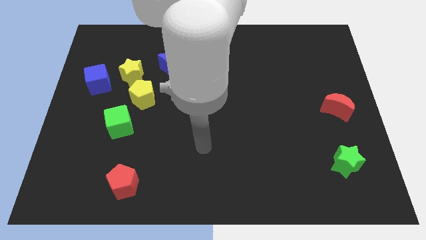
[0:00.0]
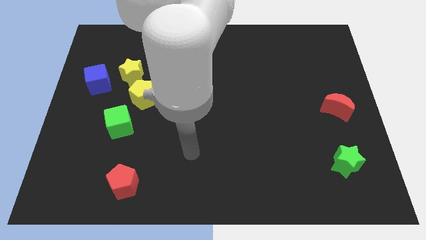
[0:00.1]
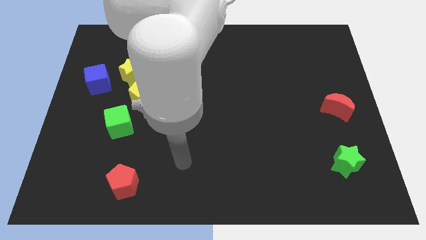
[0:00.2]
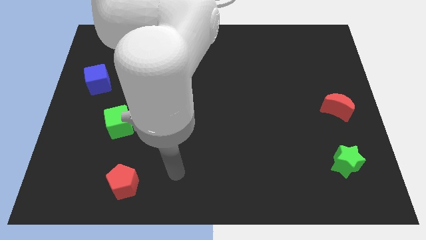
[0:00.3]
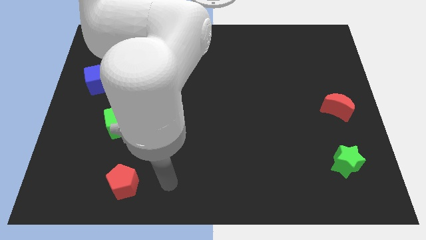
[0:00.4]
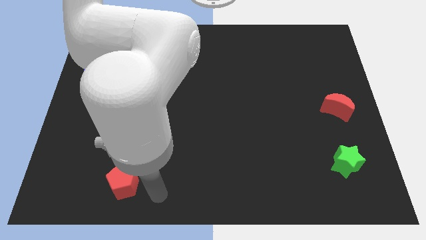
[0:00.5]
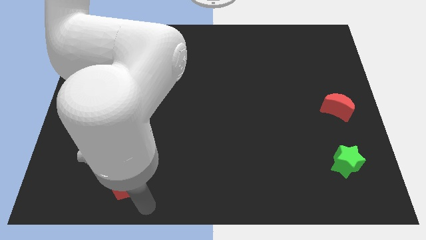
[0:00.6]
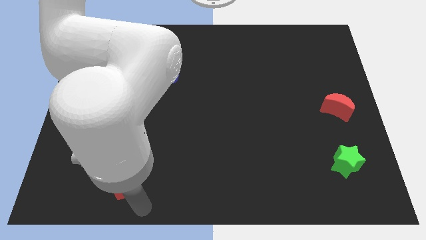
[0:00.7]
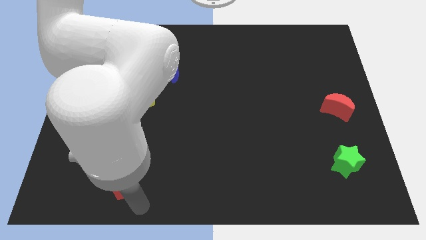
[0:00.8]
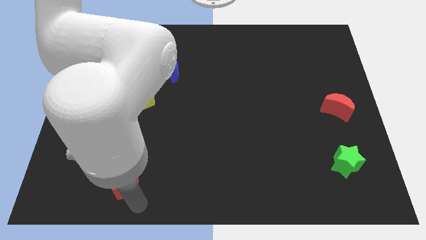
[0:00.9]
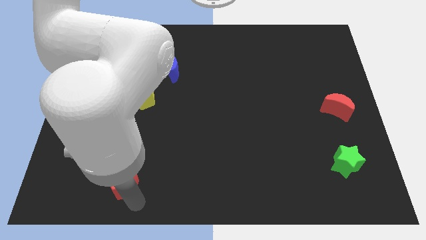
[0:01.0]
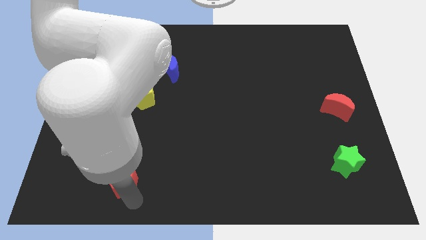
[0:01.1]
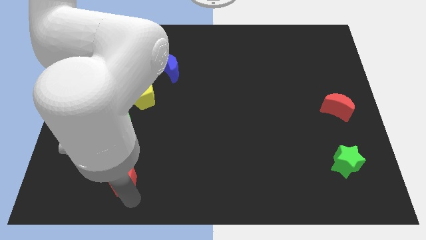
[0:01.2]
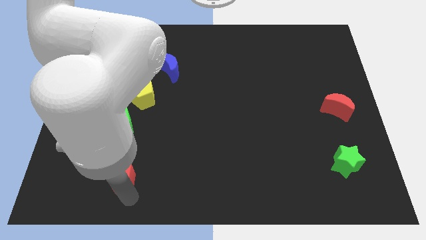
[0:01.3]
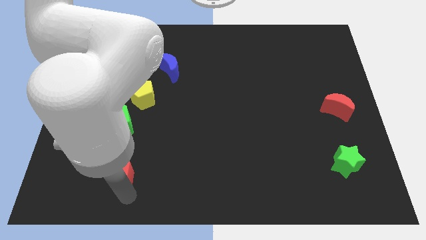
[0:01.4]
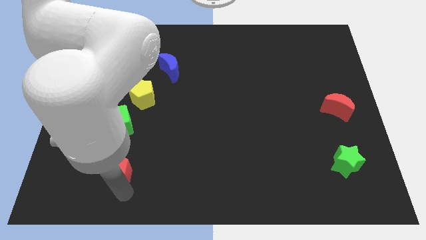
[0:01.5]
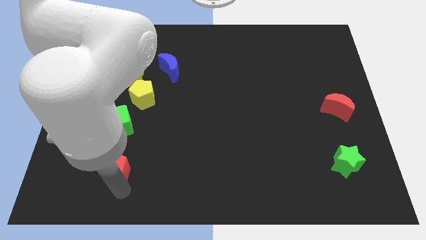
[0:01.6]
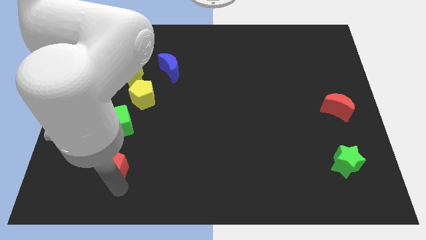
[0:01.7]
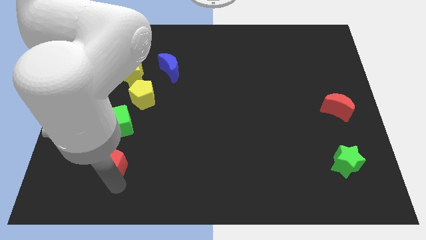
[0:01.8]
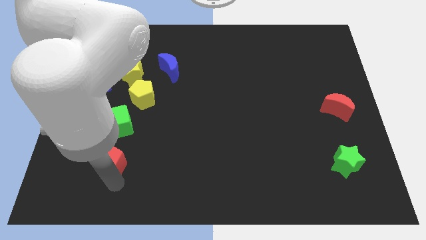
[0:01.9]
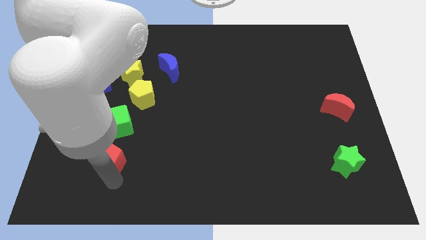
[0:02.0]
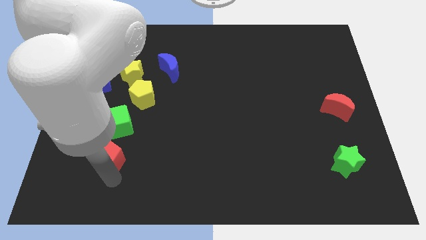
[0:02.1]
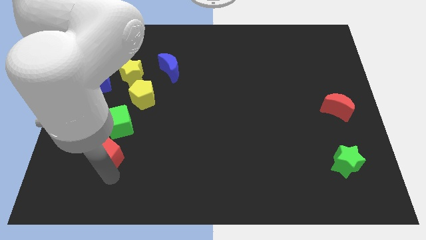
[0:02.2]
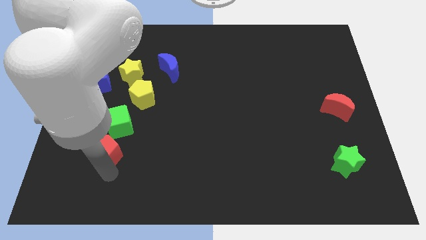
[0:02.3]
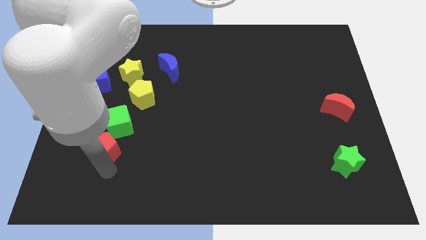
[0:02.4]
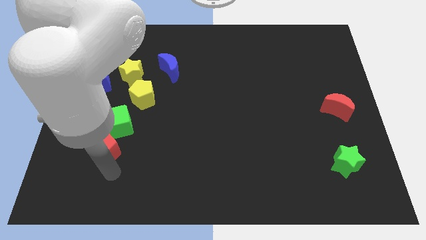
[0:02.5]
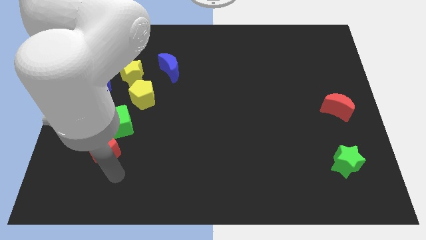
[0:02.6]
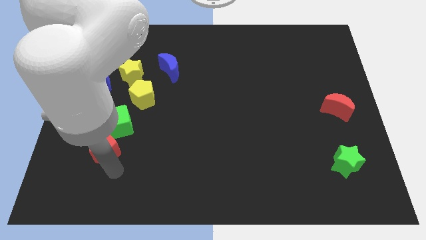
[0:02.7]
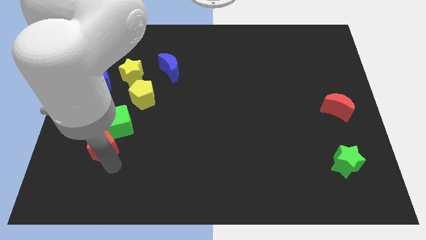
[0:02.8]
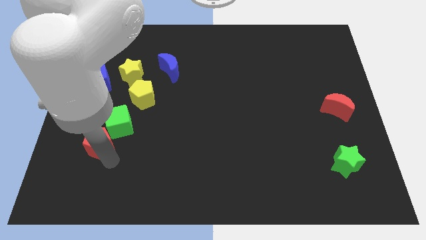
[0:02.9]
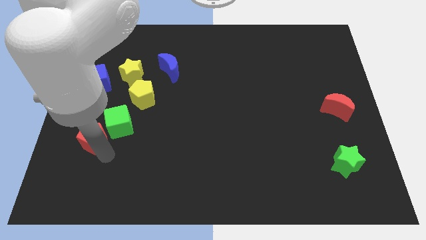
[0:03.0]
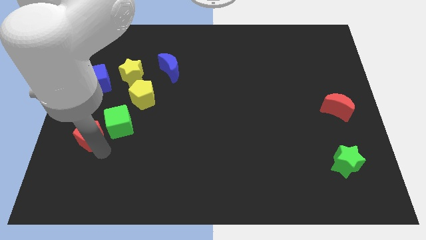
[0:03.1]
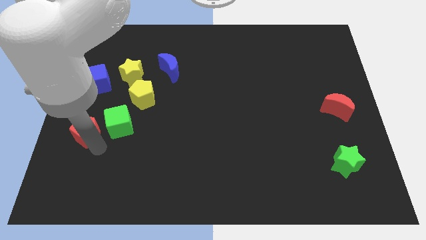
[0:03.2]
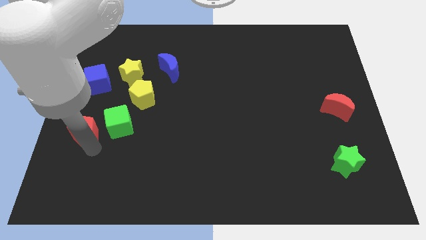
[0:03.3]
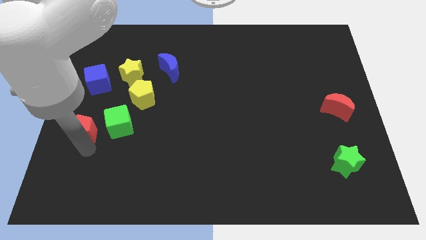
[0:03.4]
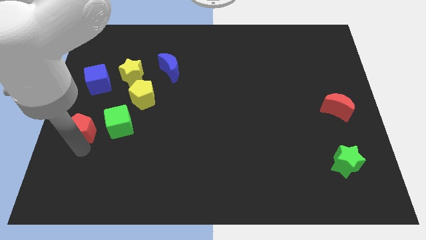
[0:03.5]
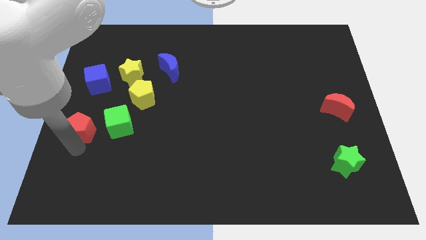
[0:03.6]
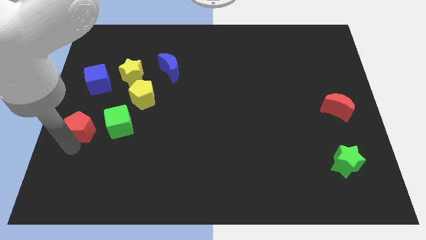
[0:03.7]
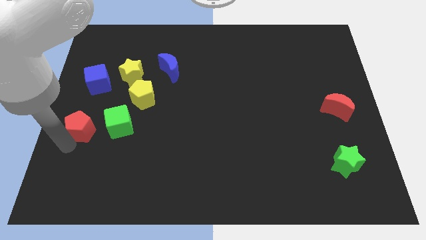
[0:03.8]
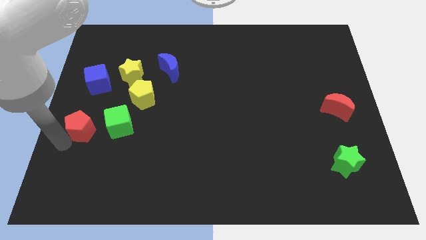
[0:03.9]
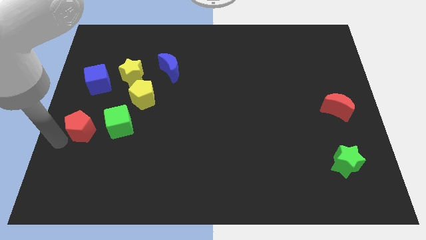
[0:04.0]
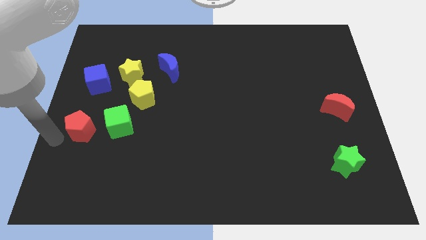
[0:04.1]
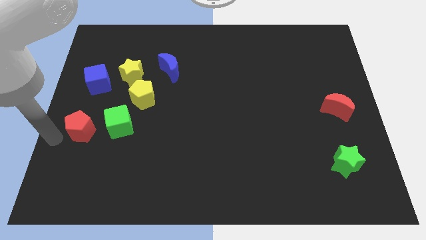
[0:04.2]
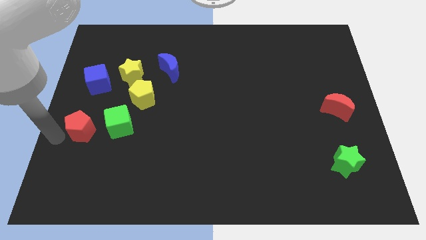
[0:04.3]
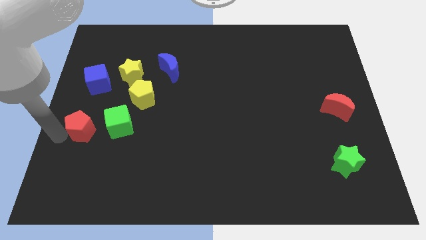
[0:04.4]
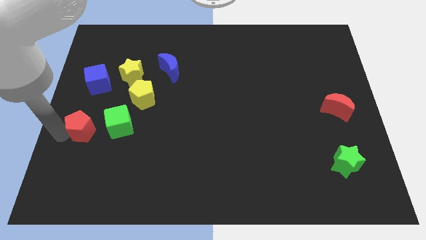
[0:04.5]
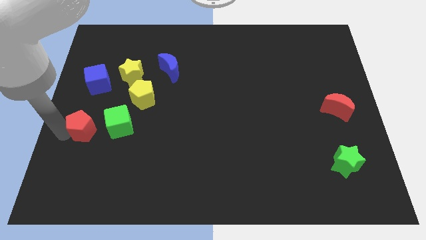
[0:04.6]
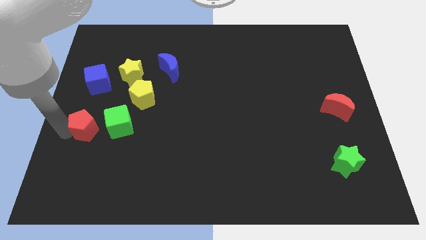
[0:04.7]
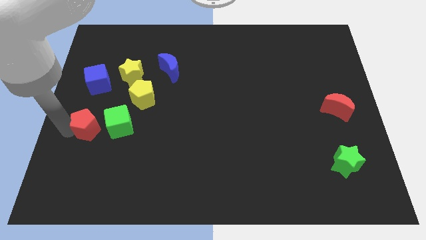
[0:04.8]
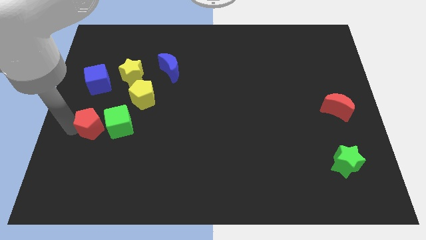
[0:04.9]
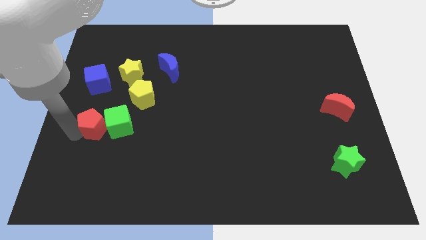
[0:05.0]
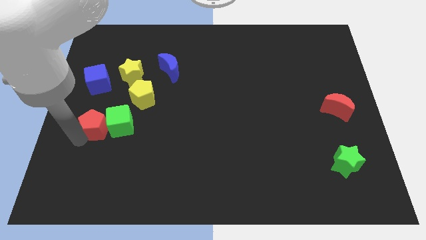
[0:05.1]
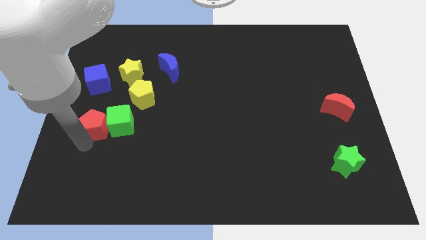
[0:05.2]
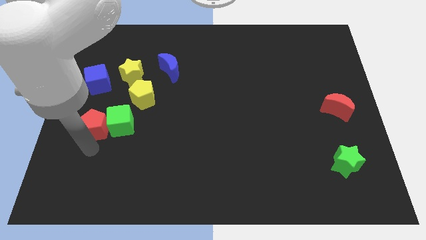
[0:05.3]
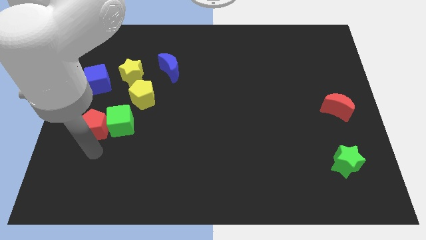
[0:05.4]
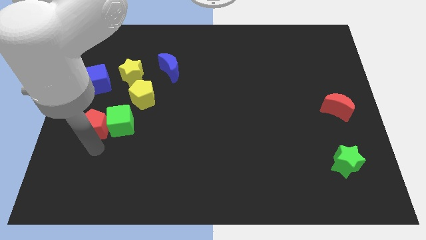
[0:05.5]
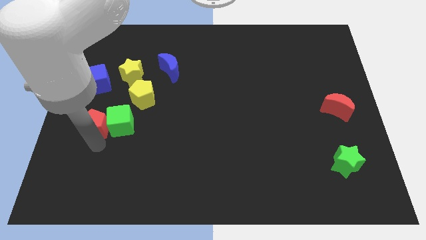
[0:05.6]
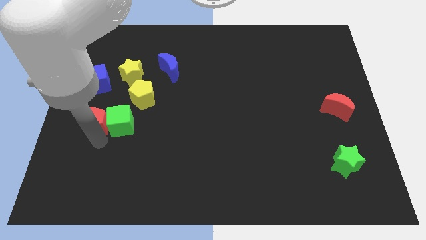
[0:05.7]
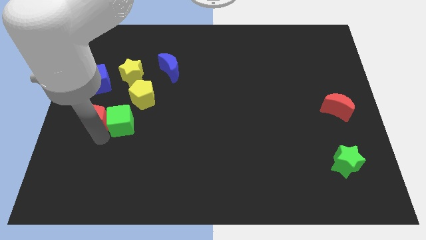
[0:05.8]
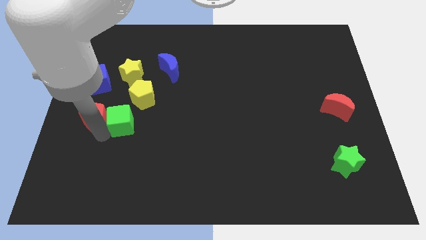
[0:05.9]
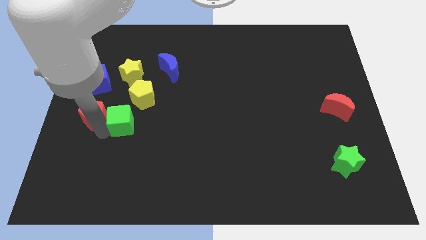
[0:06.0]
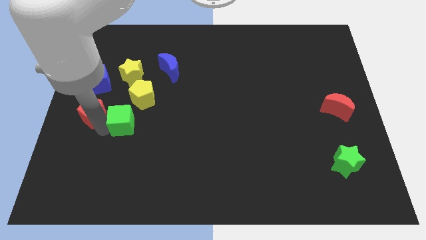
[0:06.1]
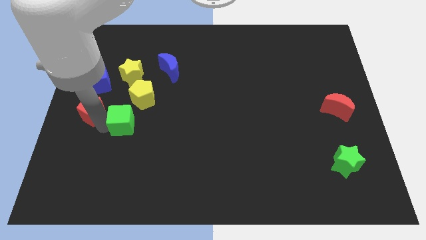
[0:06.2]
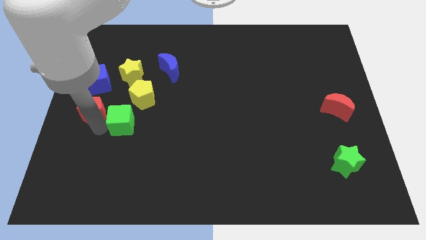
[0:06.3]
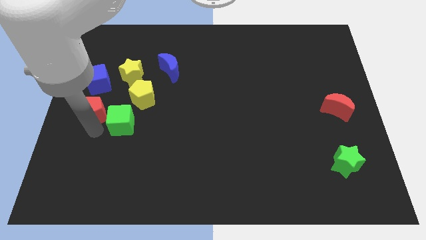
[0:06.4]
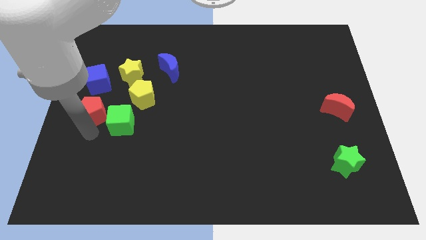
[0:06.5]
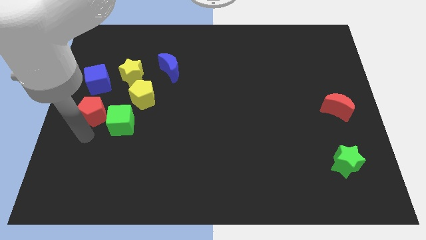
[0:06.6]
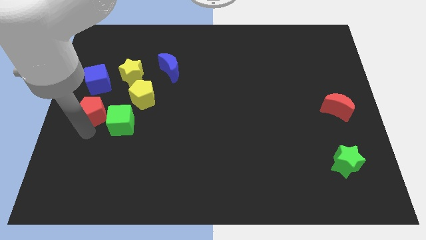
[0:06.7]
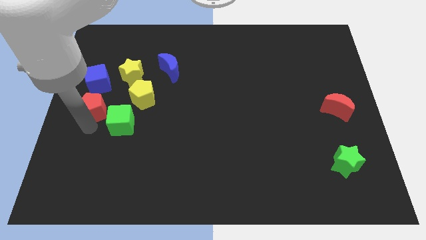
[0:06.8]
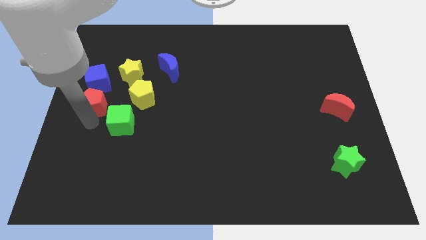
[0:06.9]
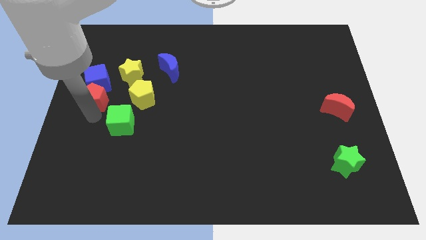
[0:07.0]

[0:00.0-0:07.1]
slide the red pentagon next to the blue cube

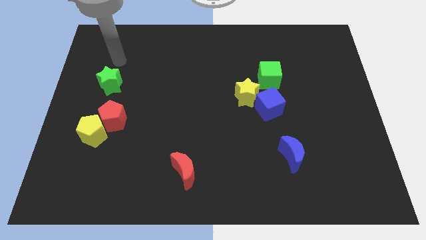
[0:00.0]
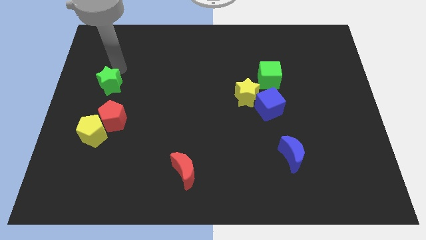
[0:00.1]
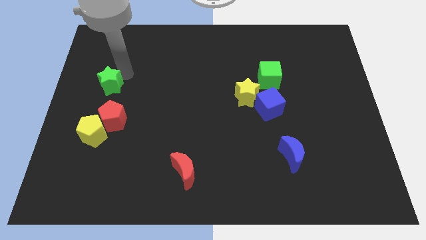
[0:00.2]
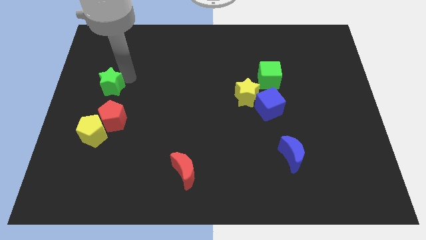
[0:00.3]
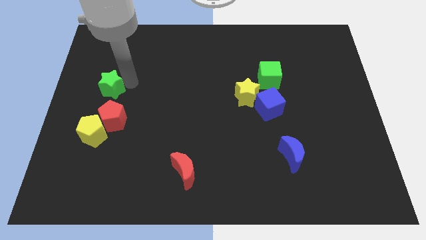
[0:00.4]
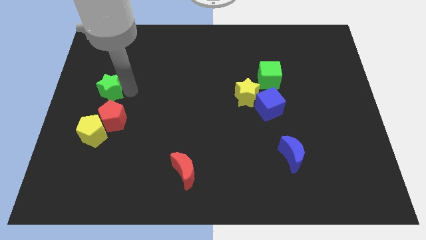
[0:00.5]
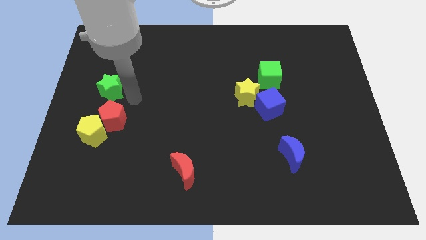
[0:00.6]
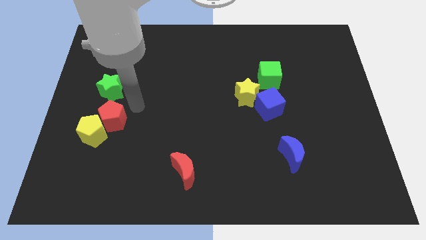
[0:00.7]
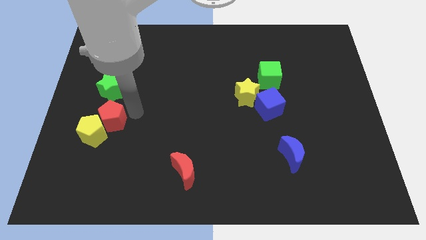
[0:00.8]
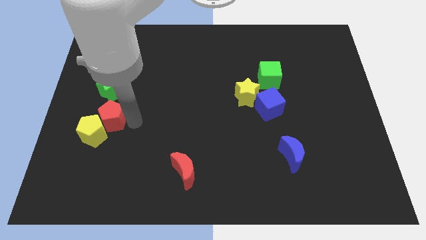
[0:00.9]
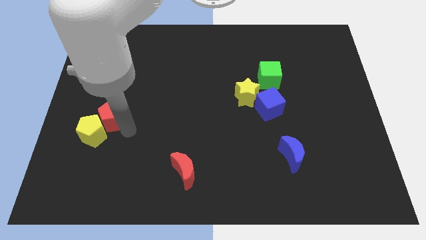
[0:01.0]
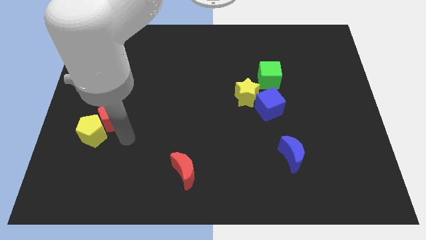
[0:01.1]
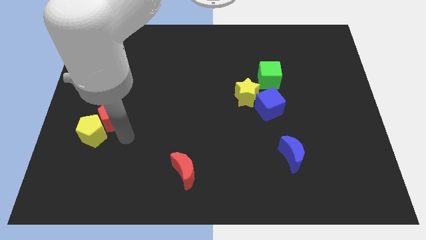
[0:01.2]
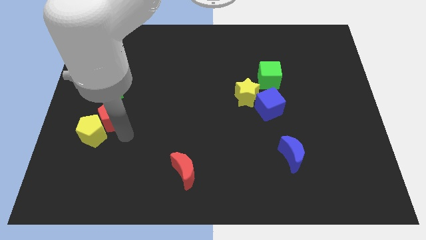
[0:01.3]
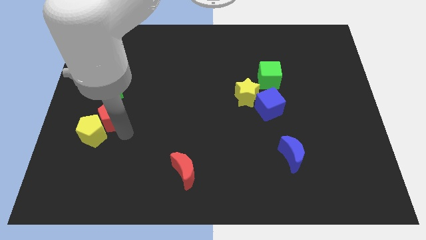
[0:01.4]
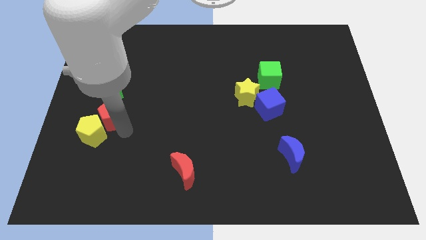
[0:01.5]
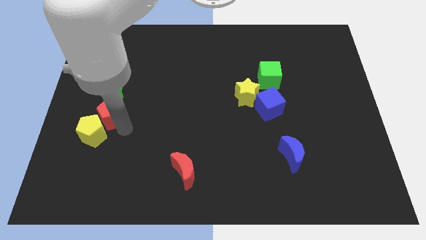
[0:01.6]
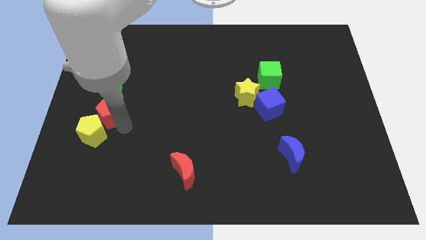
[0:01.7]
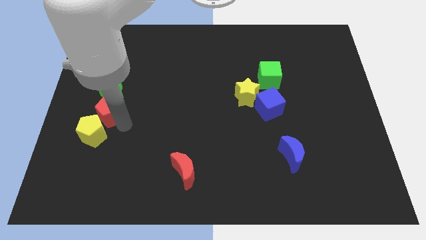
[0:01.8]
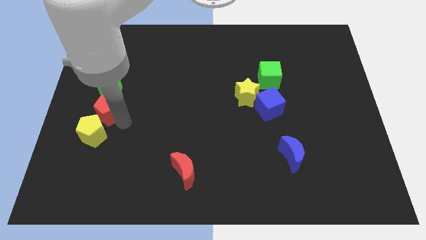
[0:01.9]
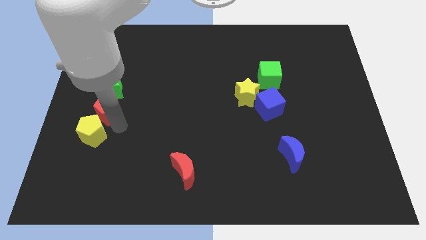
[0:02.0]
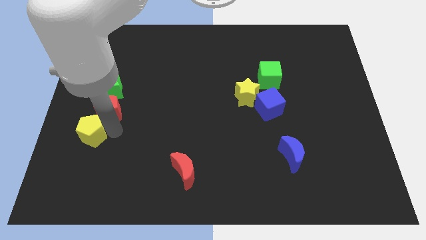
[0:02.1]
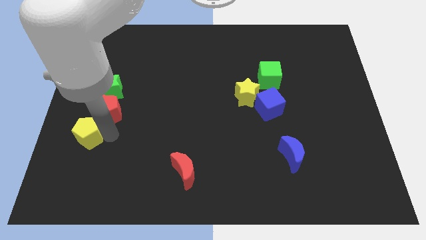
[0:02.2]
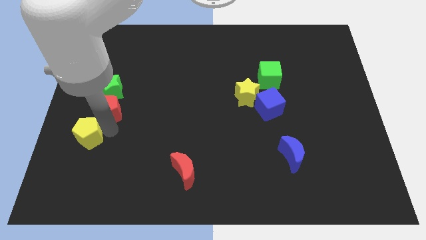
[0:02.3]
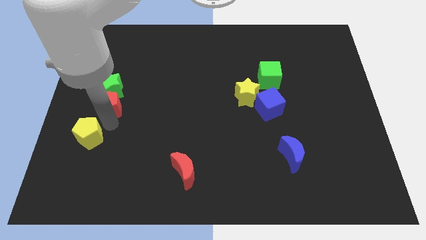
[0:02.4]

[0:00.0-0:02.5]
push the red pentagon to the green star
